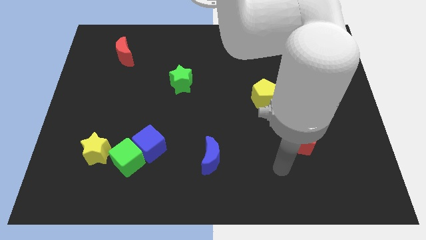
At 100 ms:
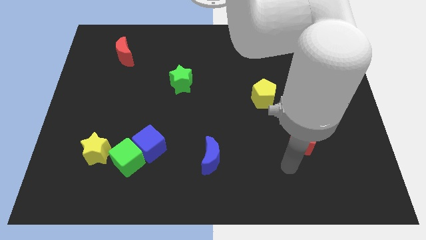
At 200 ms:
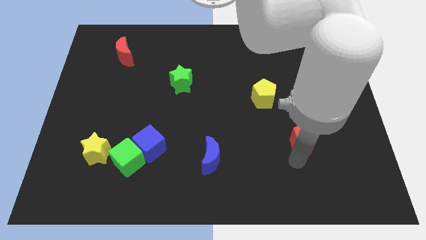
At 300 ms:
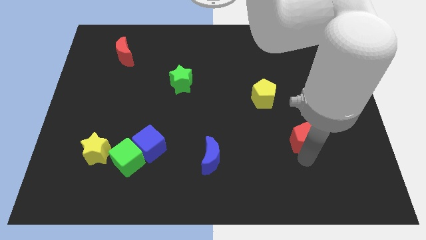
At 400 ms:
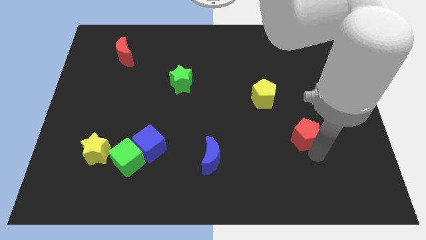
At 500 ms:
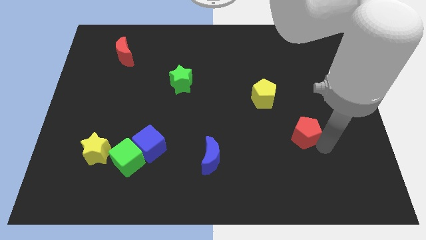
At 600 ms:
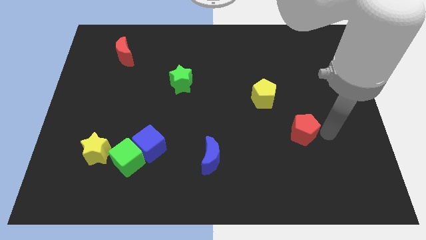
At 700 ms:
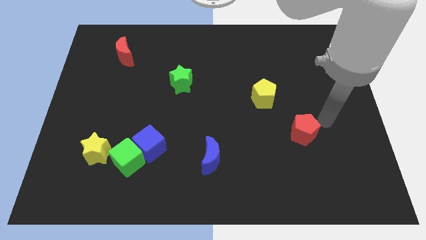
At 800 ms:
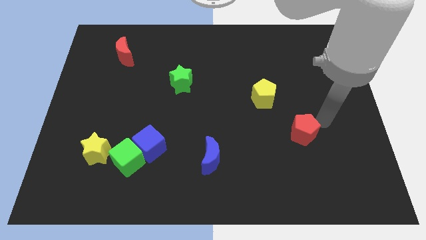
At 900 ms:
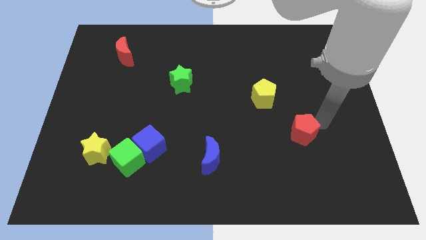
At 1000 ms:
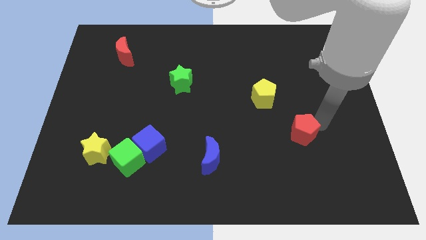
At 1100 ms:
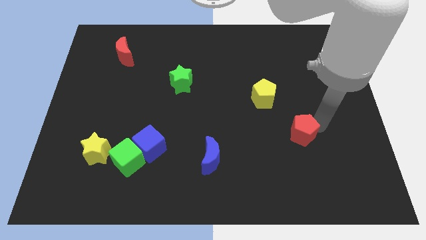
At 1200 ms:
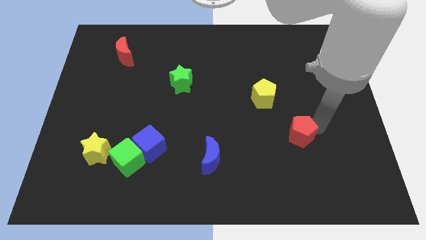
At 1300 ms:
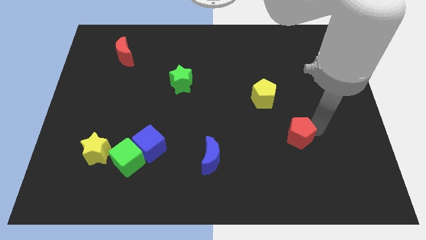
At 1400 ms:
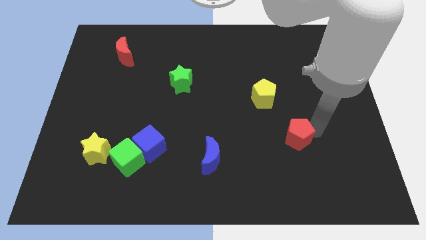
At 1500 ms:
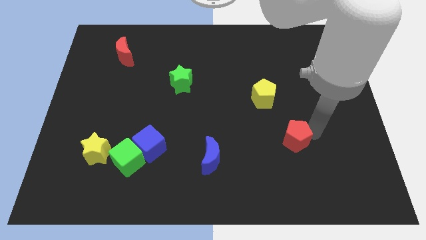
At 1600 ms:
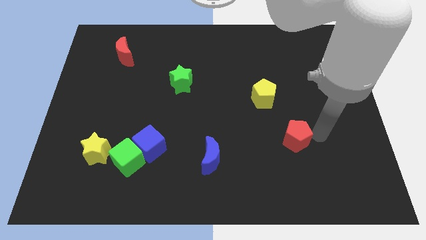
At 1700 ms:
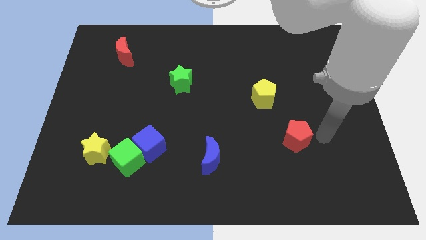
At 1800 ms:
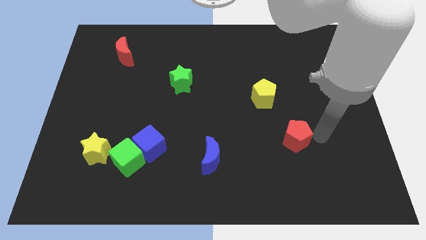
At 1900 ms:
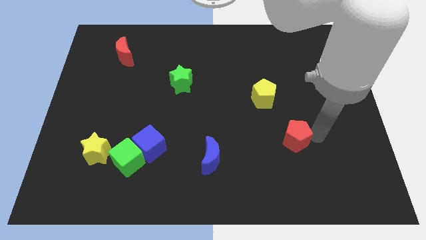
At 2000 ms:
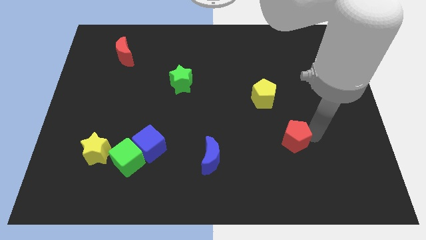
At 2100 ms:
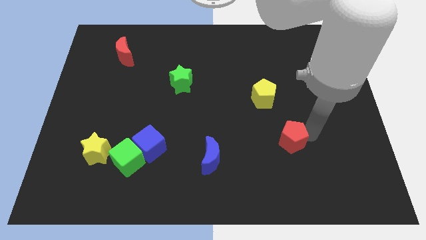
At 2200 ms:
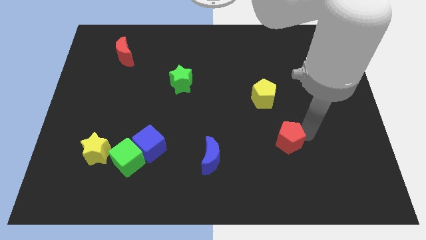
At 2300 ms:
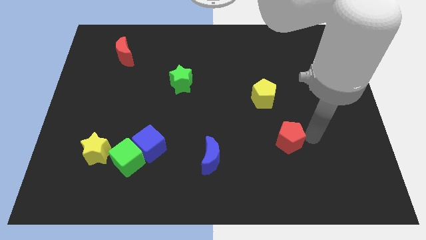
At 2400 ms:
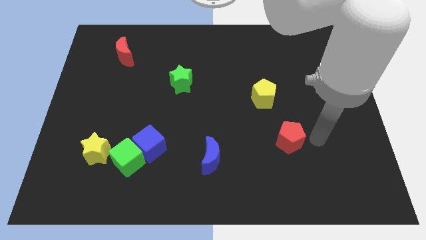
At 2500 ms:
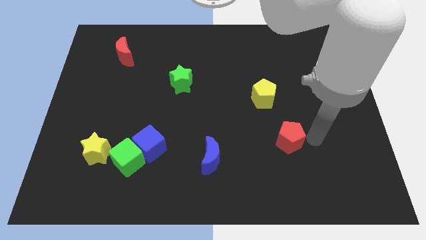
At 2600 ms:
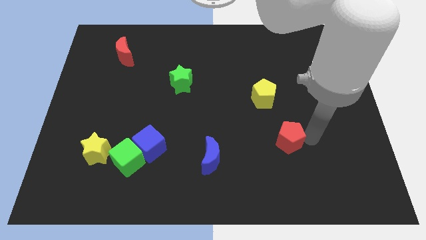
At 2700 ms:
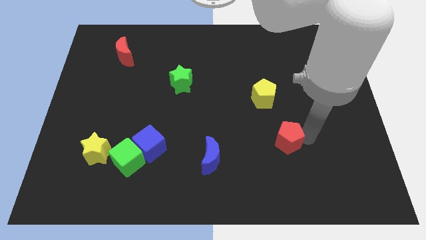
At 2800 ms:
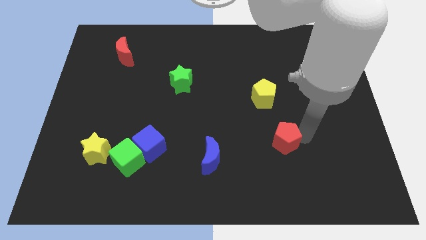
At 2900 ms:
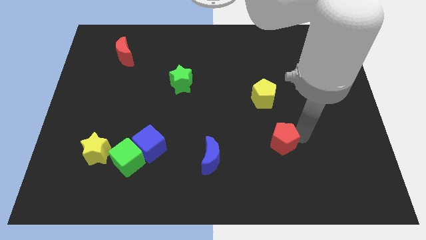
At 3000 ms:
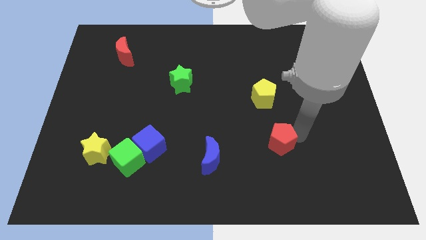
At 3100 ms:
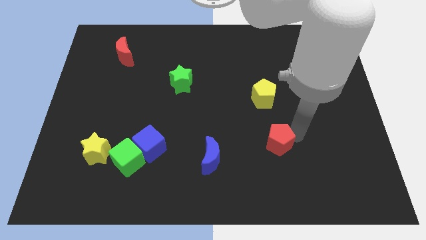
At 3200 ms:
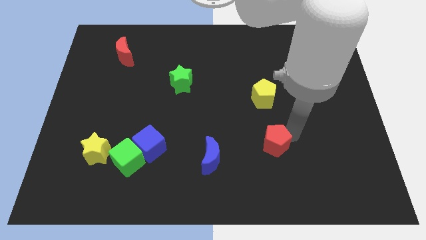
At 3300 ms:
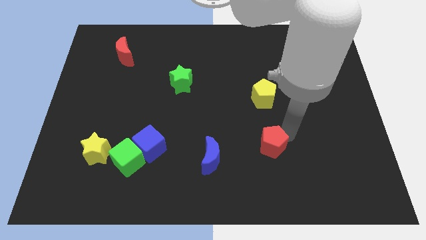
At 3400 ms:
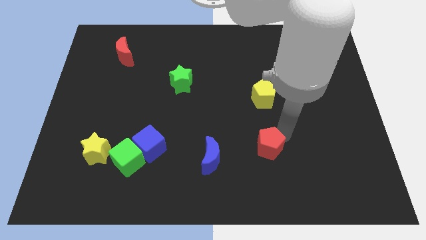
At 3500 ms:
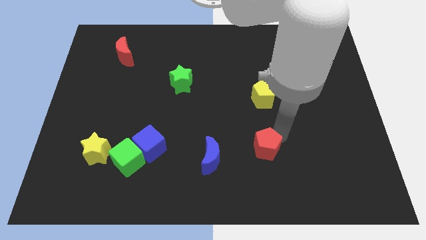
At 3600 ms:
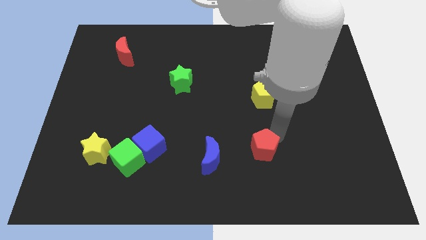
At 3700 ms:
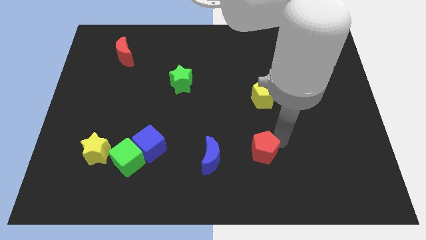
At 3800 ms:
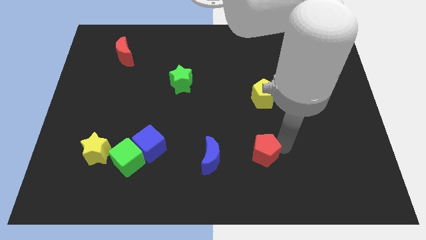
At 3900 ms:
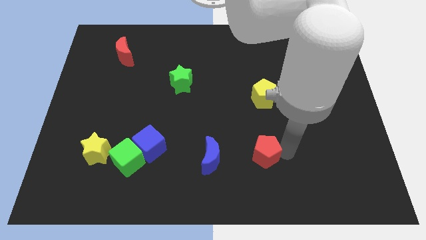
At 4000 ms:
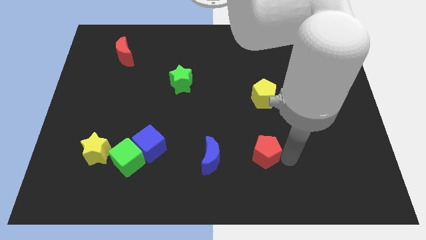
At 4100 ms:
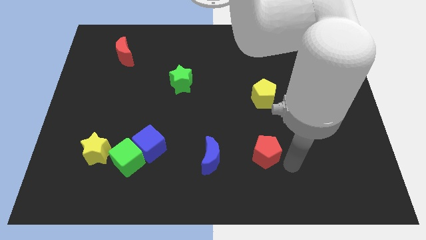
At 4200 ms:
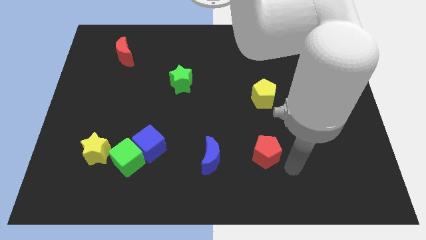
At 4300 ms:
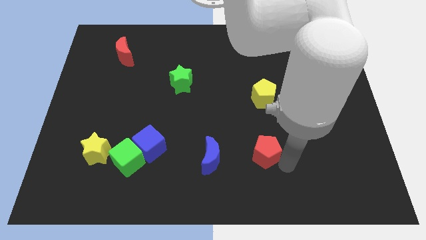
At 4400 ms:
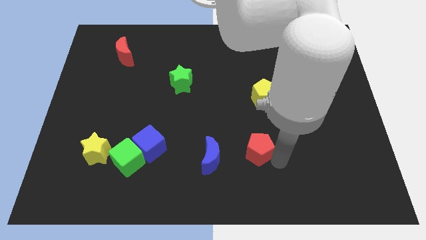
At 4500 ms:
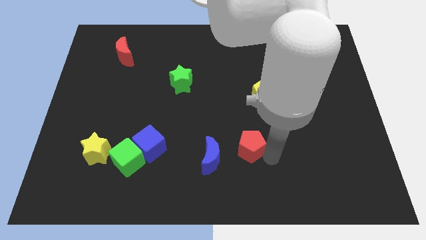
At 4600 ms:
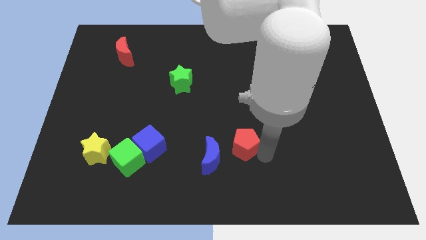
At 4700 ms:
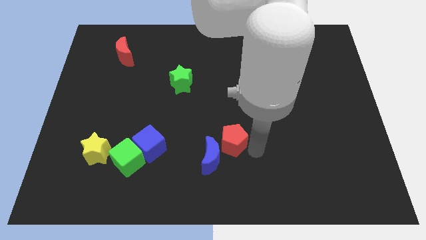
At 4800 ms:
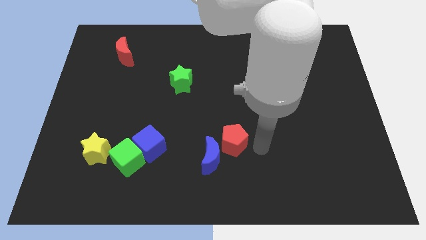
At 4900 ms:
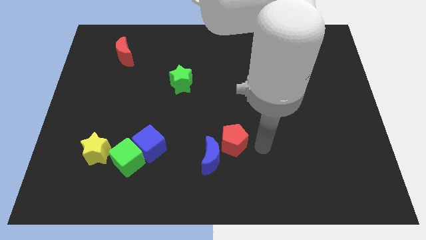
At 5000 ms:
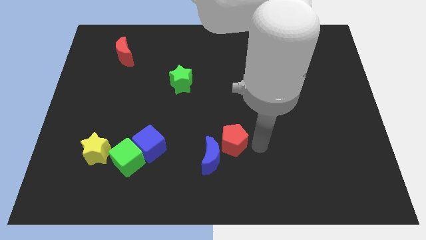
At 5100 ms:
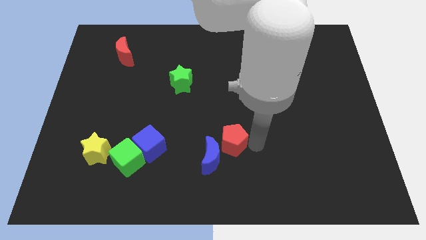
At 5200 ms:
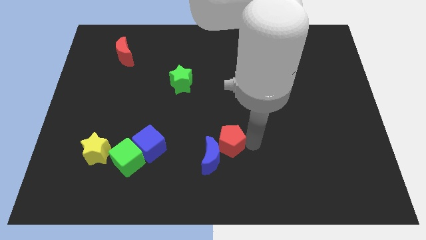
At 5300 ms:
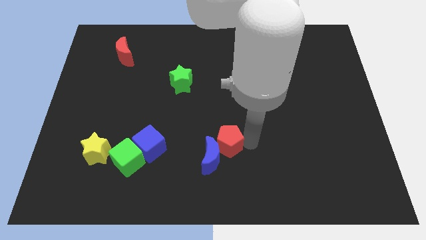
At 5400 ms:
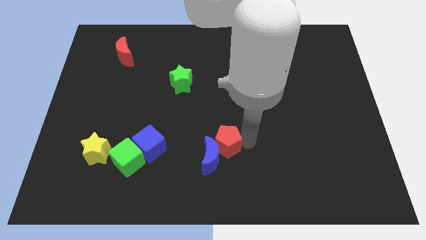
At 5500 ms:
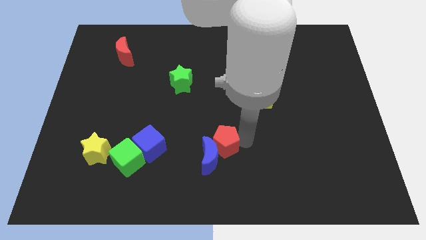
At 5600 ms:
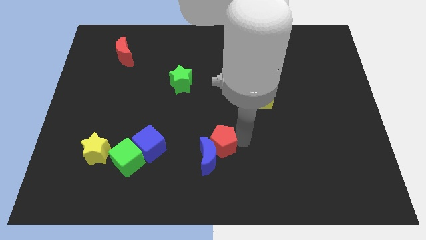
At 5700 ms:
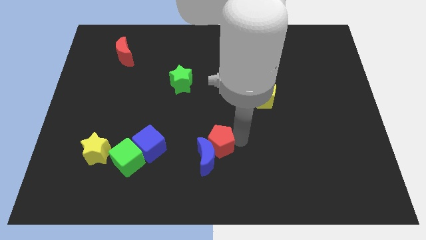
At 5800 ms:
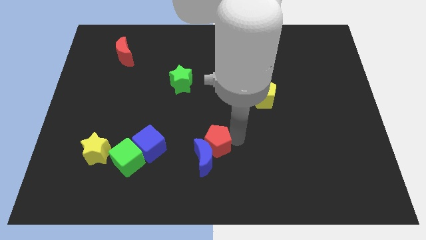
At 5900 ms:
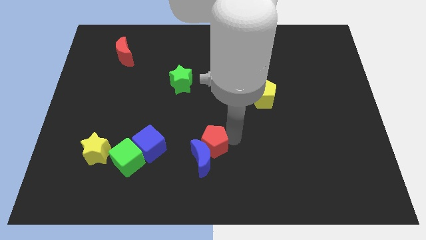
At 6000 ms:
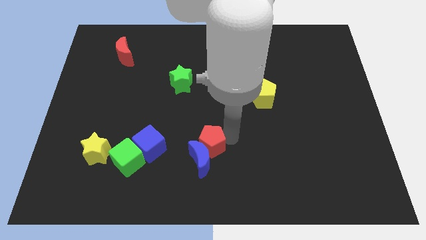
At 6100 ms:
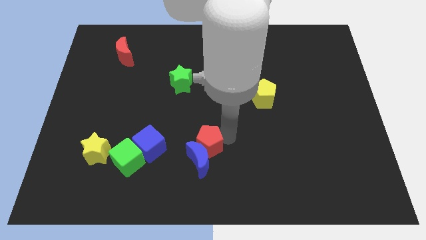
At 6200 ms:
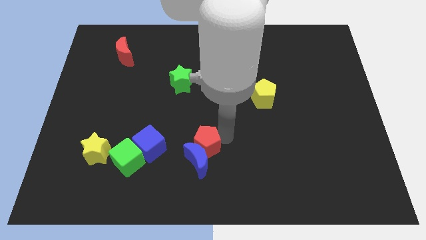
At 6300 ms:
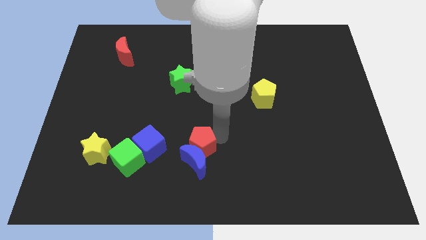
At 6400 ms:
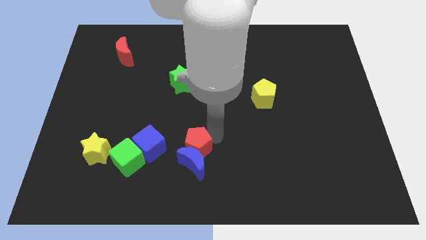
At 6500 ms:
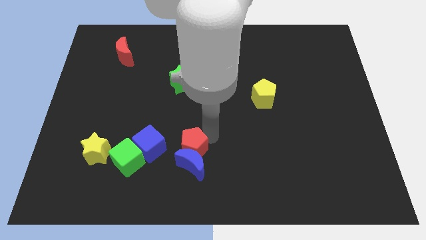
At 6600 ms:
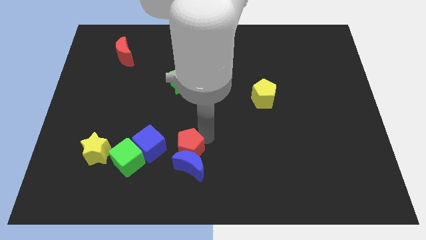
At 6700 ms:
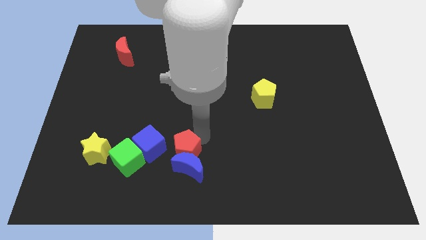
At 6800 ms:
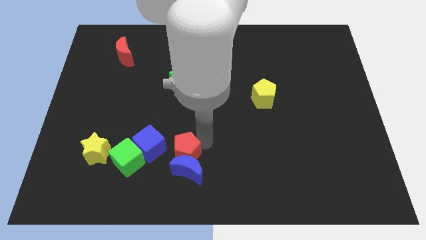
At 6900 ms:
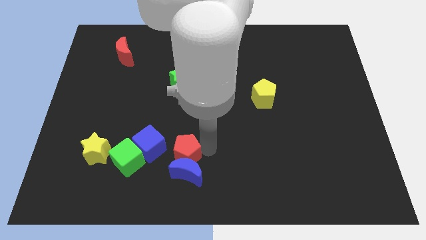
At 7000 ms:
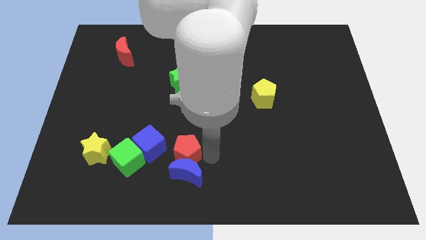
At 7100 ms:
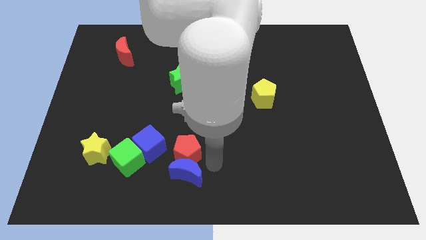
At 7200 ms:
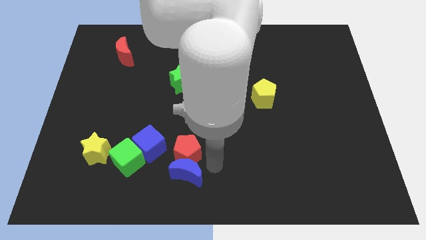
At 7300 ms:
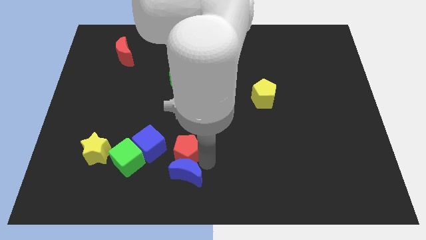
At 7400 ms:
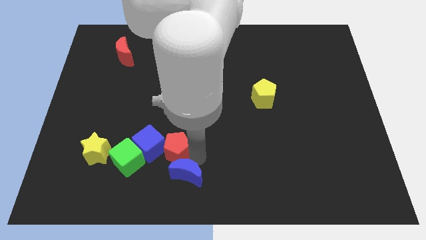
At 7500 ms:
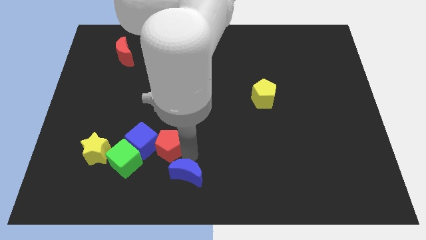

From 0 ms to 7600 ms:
move the red pentagon to the top right of the green cube
